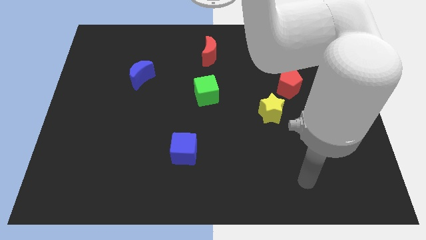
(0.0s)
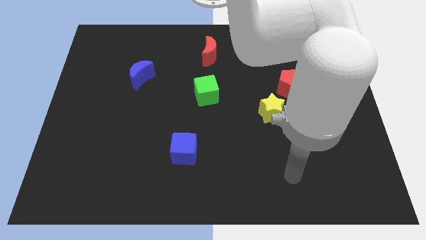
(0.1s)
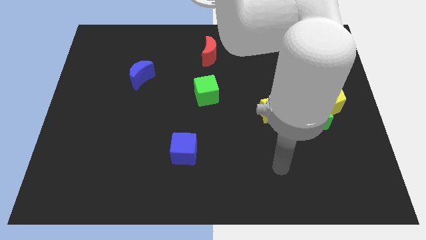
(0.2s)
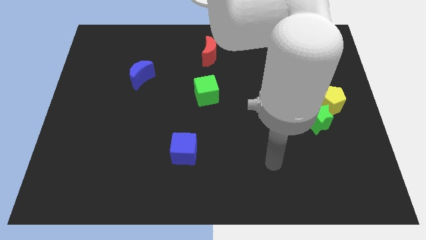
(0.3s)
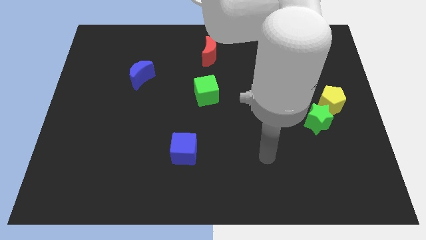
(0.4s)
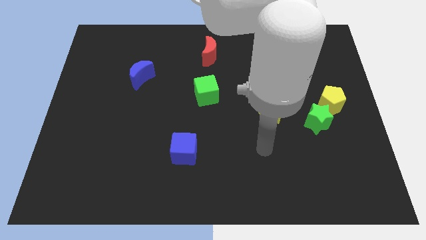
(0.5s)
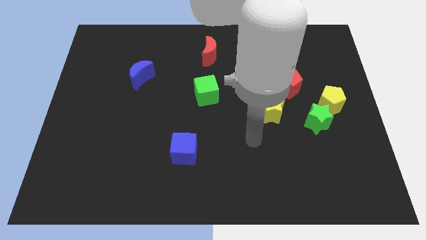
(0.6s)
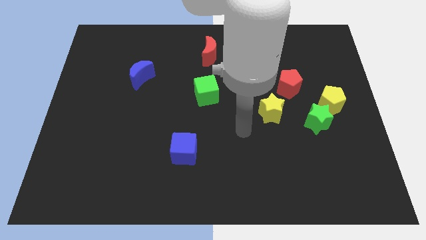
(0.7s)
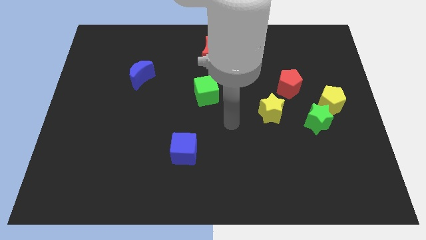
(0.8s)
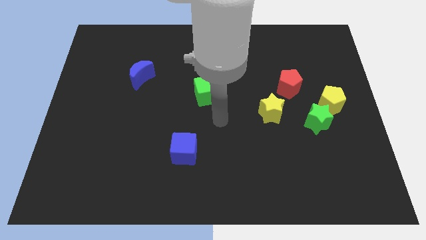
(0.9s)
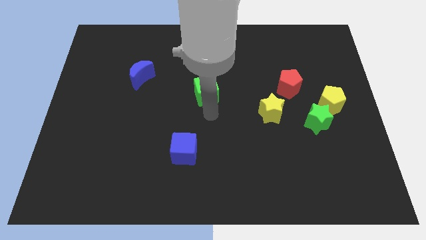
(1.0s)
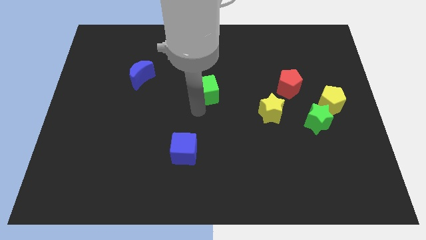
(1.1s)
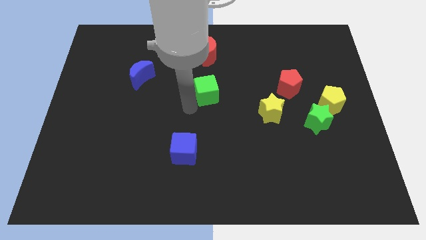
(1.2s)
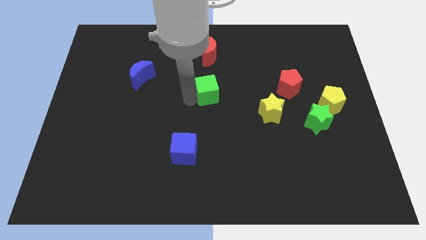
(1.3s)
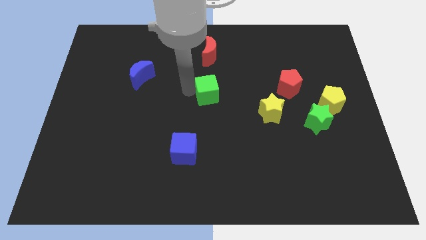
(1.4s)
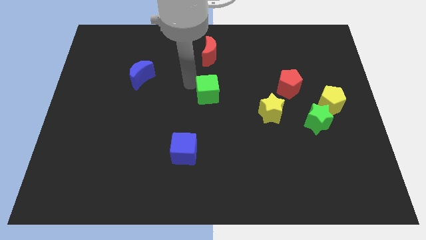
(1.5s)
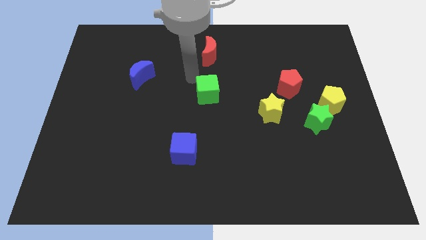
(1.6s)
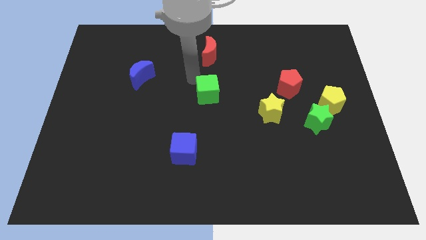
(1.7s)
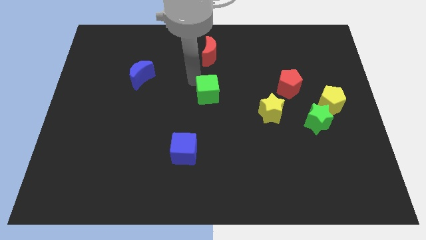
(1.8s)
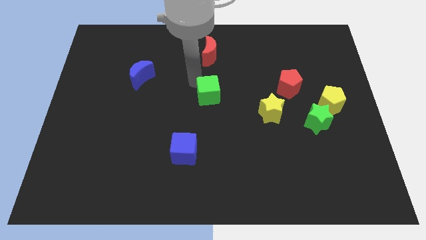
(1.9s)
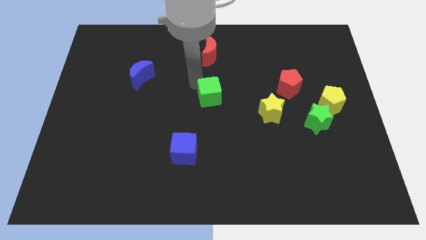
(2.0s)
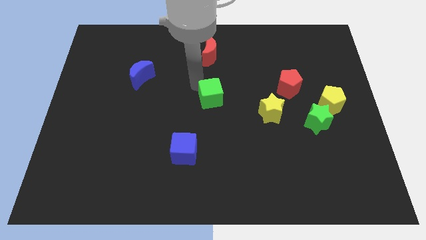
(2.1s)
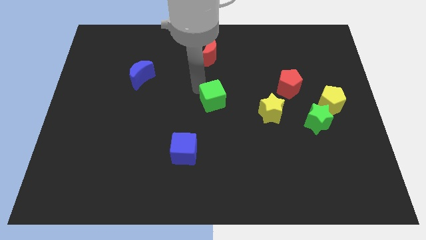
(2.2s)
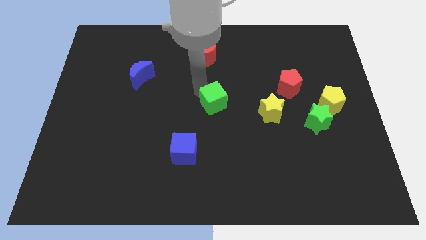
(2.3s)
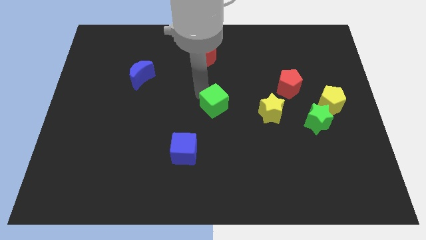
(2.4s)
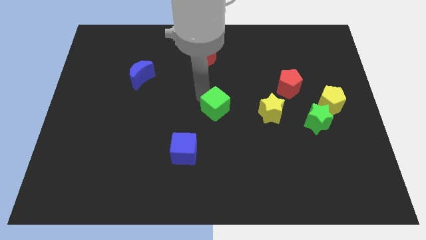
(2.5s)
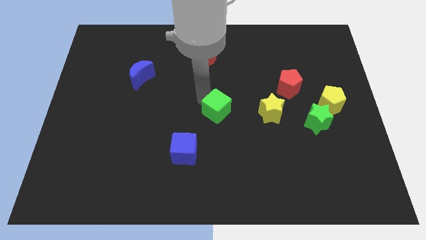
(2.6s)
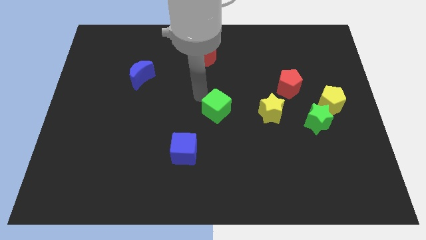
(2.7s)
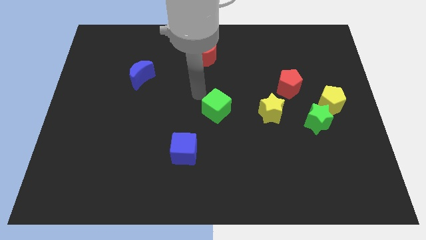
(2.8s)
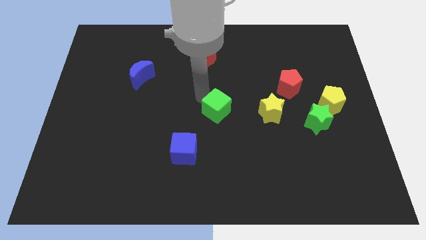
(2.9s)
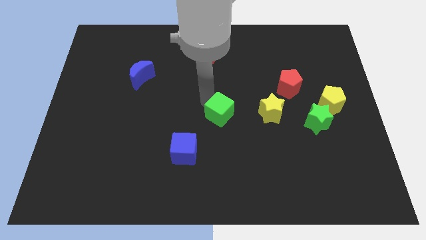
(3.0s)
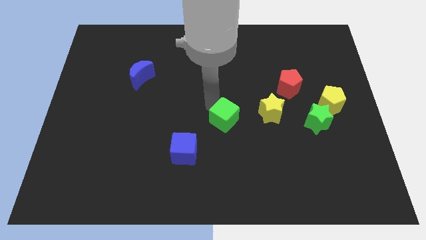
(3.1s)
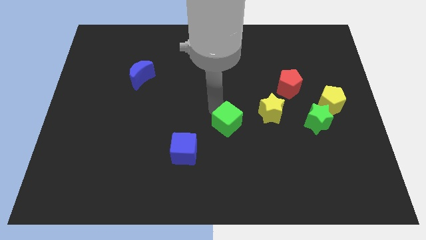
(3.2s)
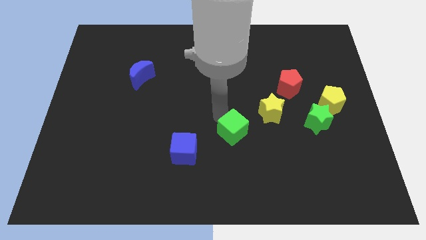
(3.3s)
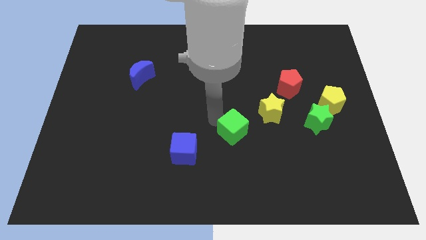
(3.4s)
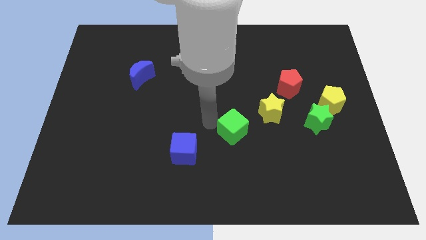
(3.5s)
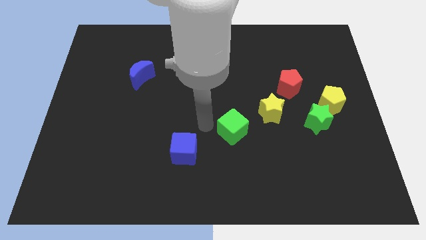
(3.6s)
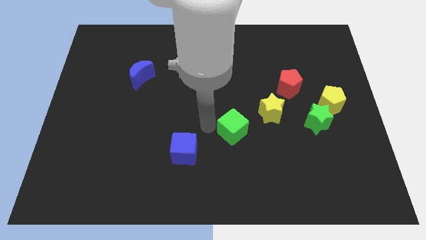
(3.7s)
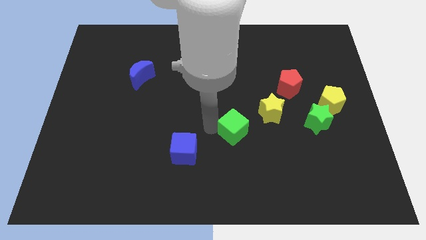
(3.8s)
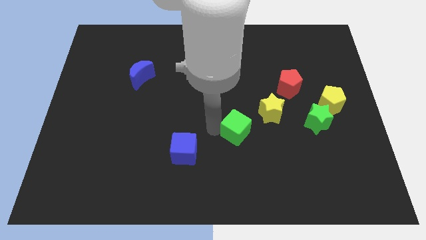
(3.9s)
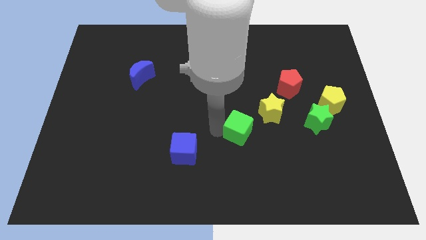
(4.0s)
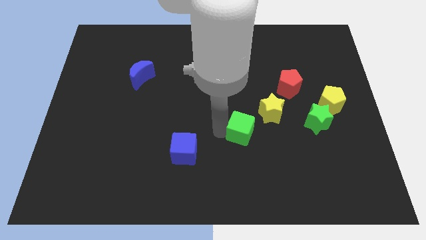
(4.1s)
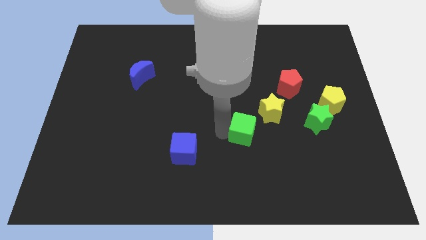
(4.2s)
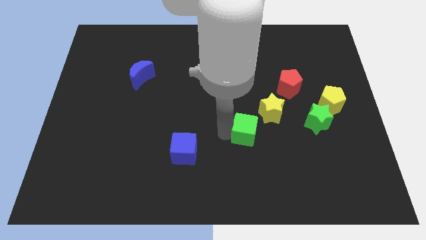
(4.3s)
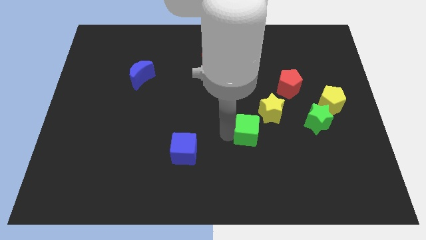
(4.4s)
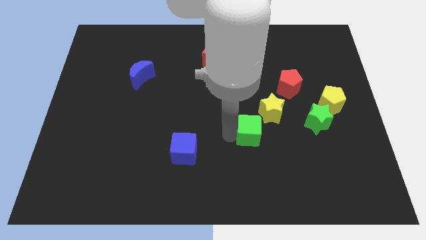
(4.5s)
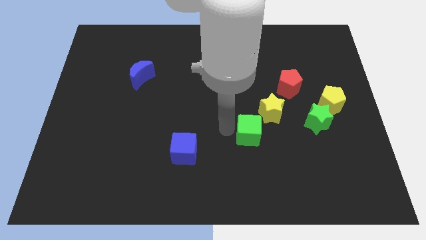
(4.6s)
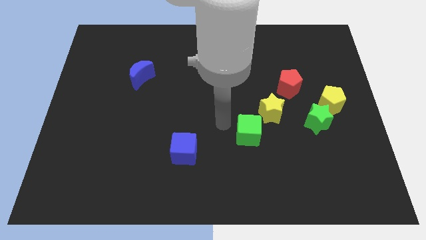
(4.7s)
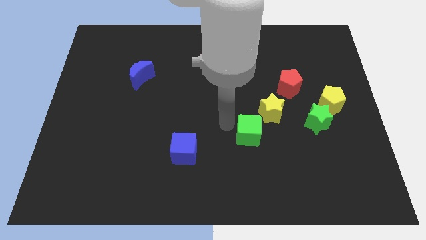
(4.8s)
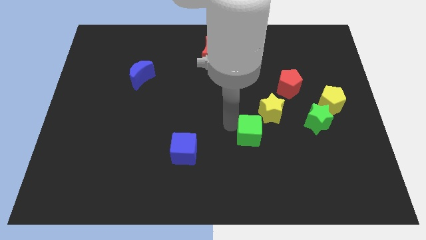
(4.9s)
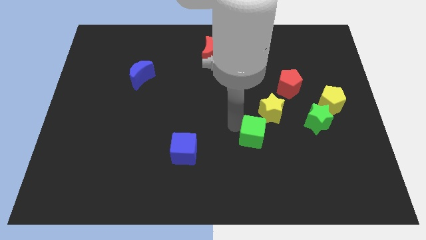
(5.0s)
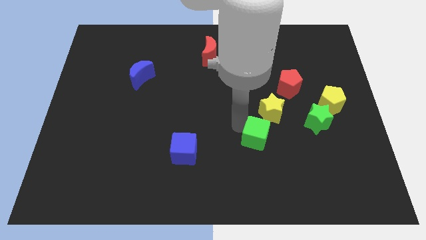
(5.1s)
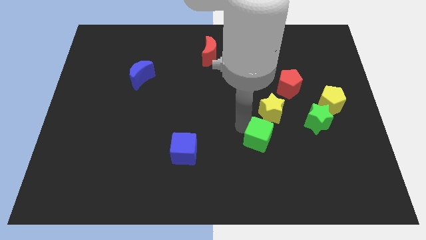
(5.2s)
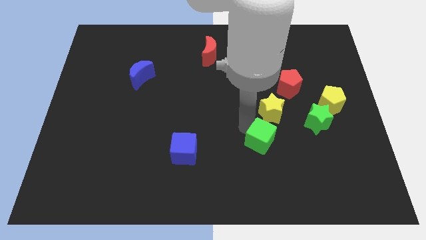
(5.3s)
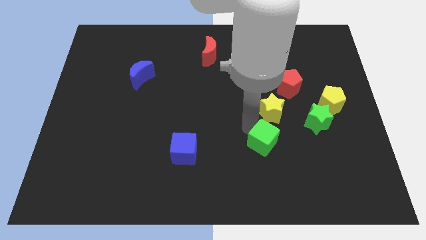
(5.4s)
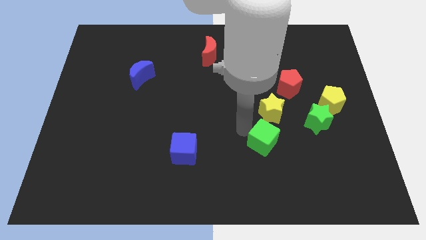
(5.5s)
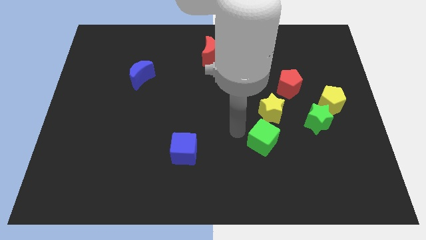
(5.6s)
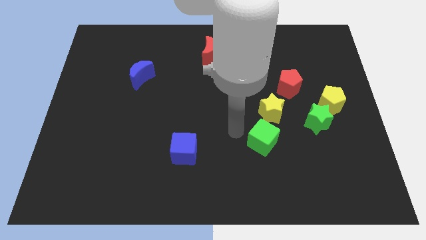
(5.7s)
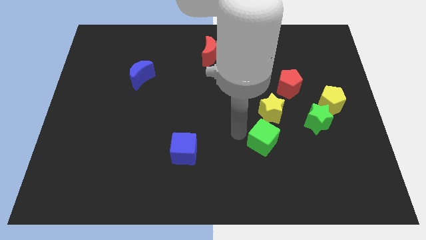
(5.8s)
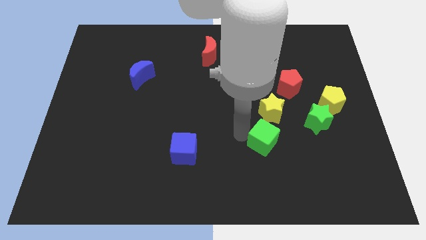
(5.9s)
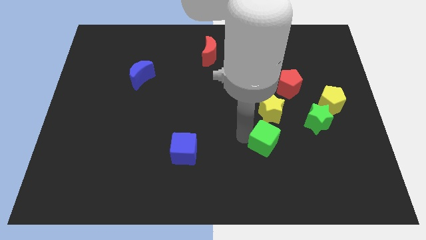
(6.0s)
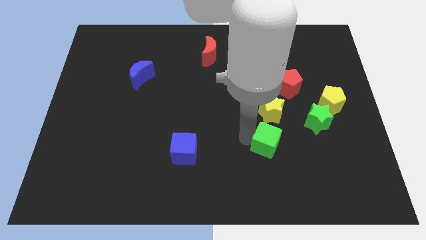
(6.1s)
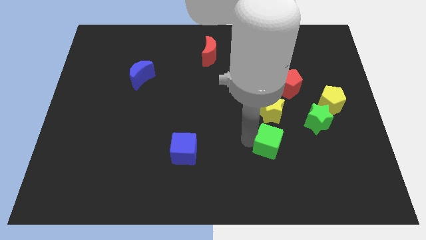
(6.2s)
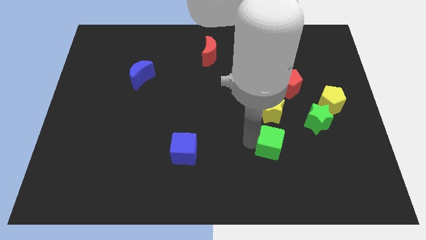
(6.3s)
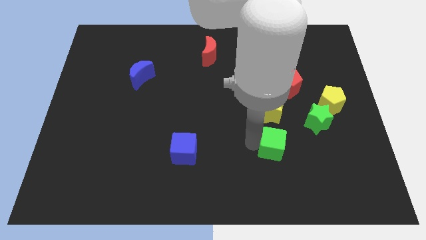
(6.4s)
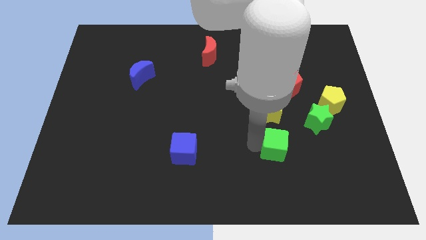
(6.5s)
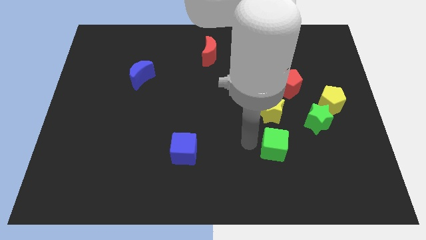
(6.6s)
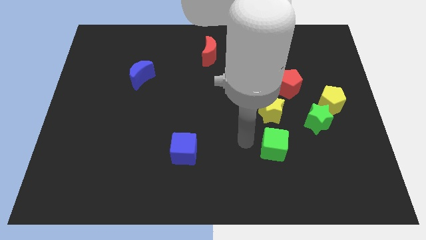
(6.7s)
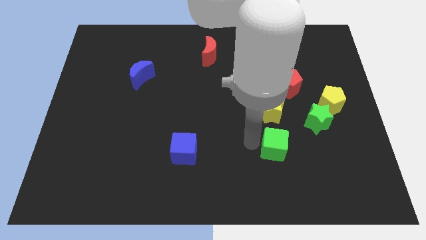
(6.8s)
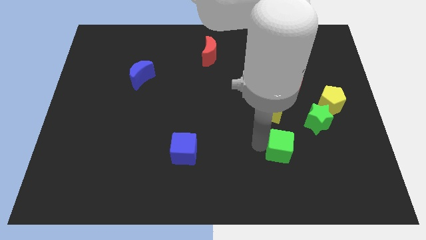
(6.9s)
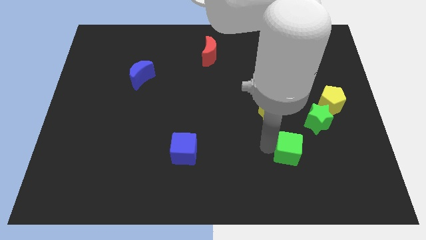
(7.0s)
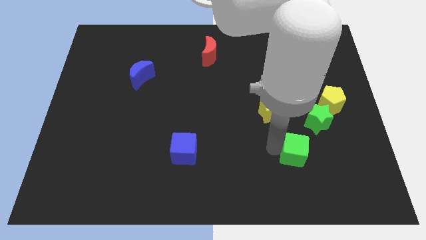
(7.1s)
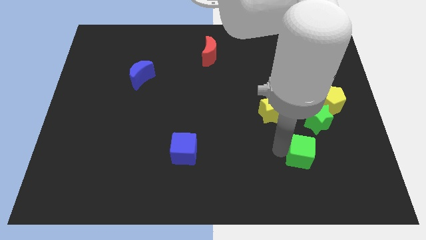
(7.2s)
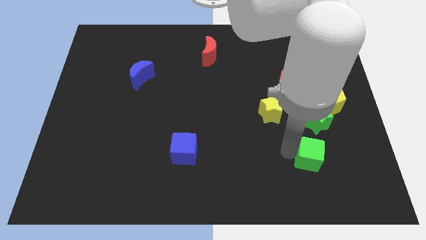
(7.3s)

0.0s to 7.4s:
move the green cube below the green star

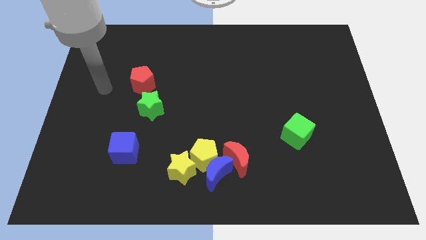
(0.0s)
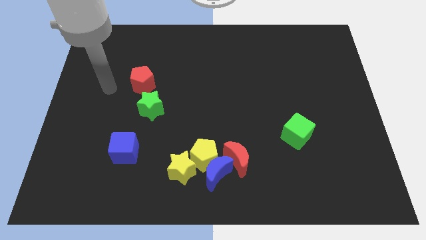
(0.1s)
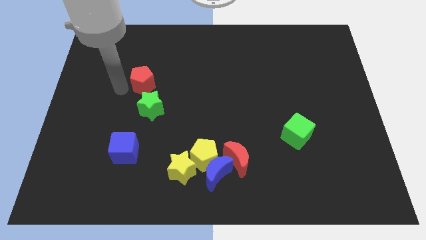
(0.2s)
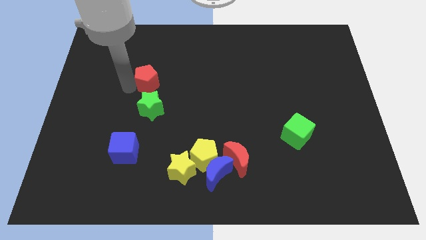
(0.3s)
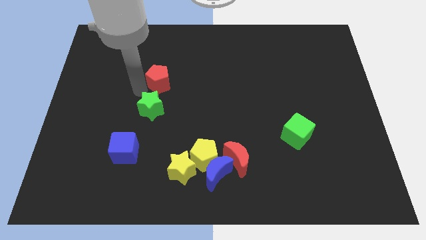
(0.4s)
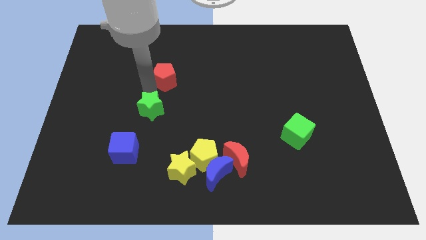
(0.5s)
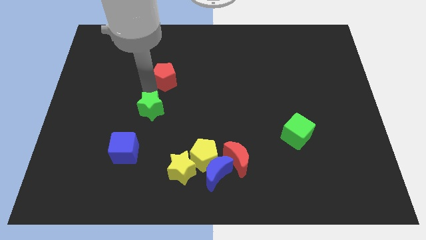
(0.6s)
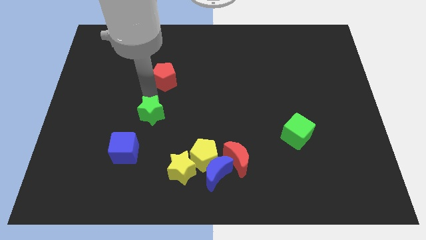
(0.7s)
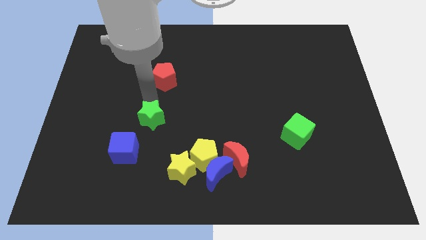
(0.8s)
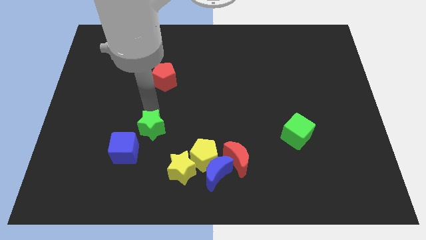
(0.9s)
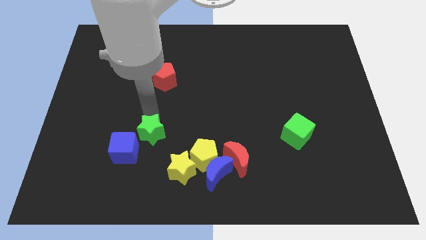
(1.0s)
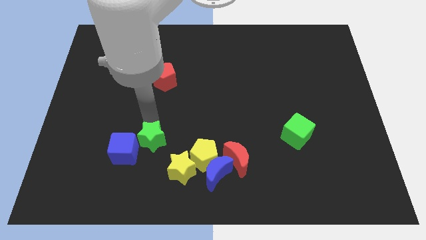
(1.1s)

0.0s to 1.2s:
push the green star to the left side of the yellow pentagon
